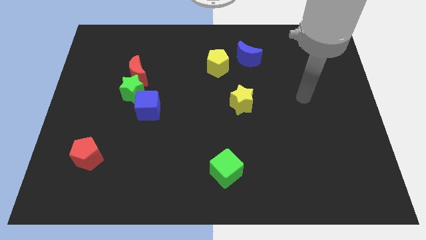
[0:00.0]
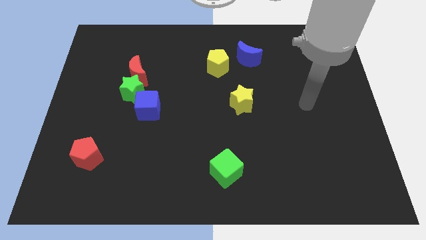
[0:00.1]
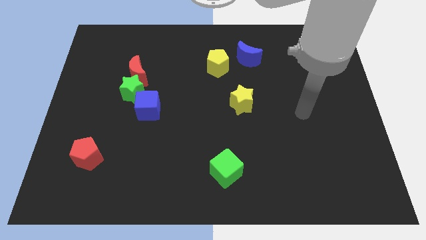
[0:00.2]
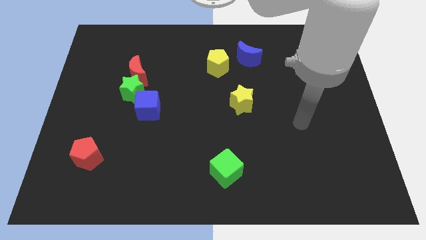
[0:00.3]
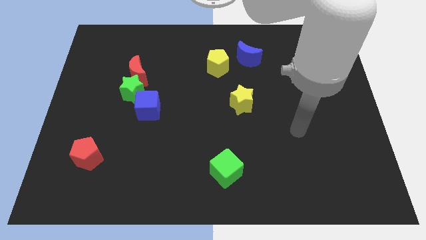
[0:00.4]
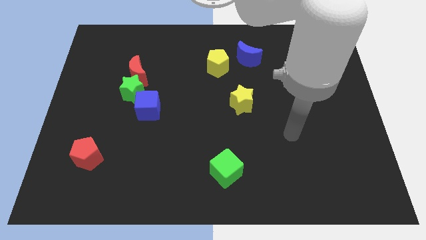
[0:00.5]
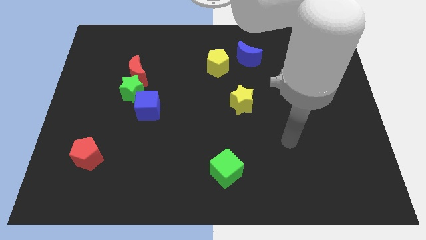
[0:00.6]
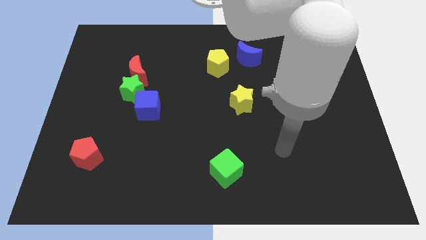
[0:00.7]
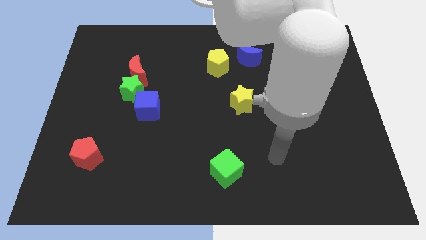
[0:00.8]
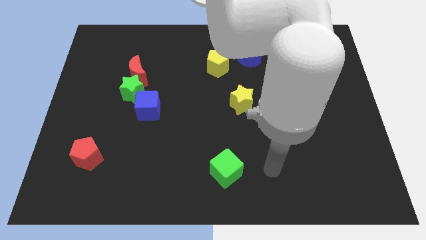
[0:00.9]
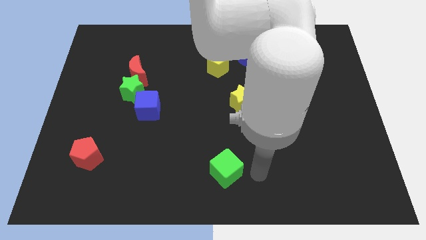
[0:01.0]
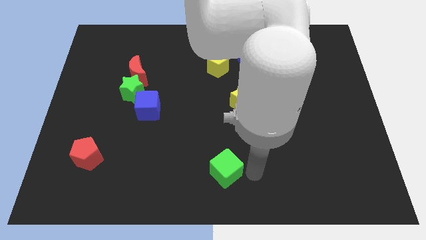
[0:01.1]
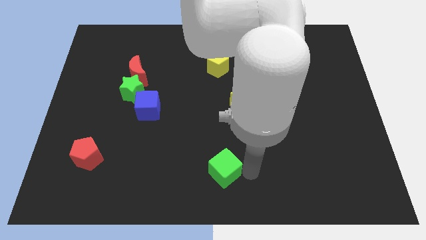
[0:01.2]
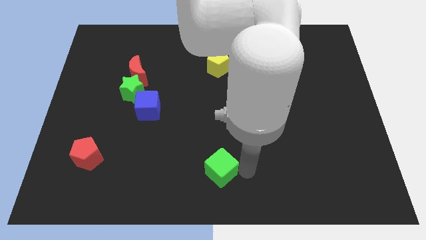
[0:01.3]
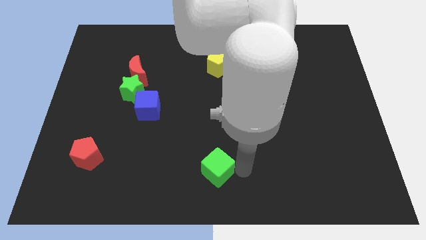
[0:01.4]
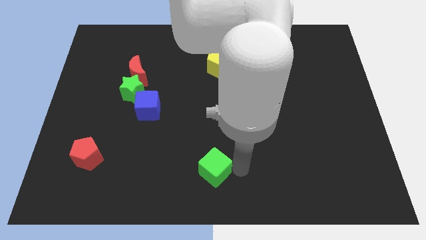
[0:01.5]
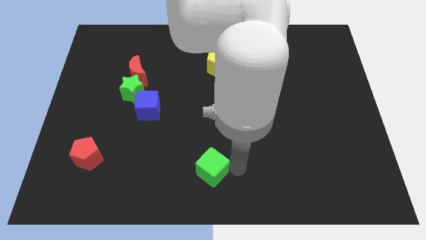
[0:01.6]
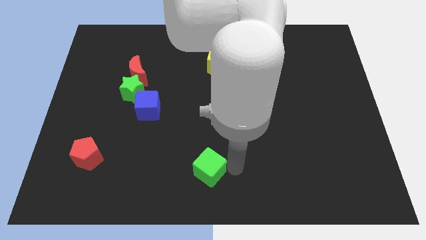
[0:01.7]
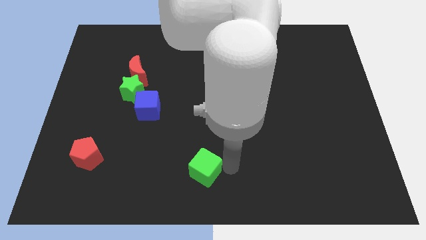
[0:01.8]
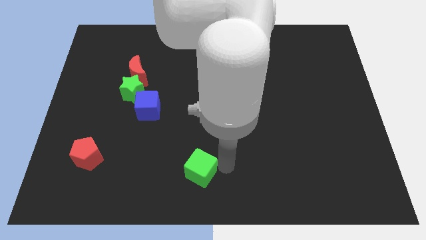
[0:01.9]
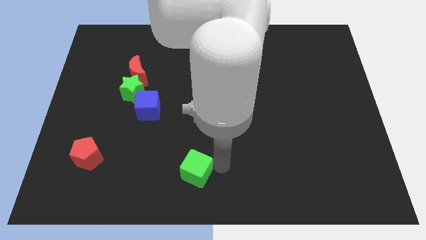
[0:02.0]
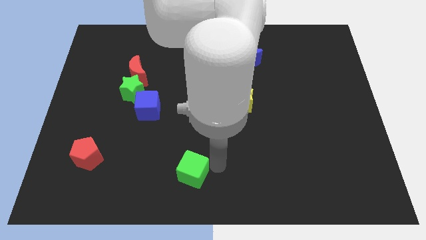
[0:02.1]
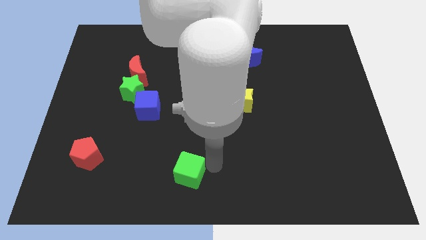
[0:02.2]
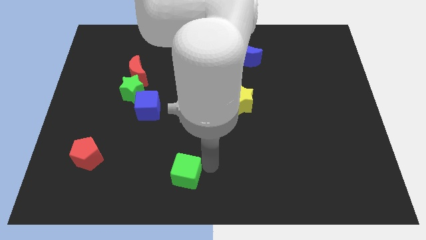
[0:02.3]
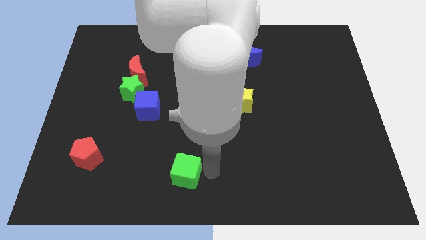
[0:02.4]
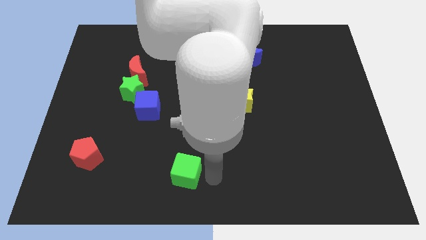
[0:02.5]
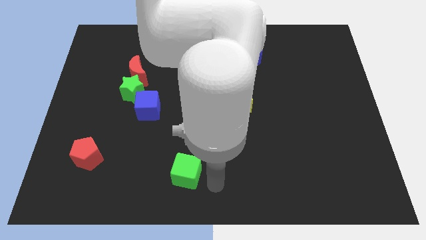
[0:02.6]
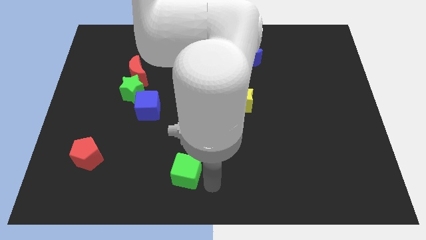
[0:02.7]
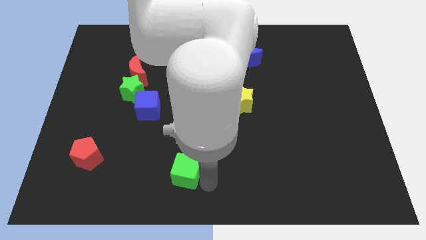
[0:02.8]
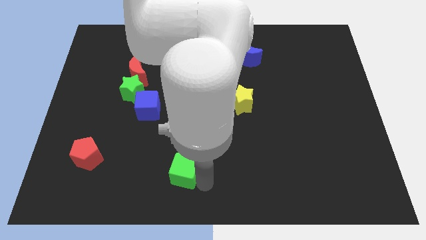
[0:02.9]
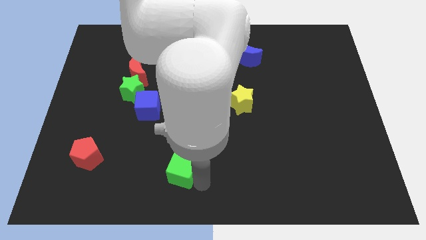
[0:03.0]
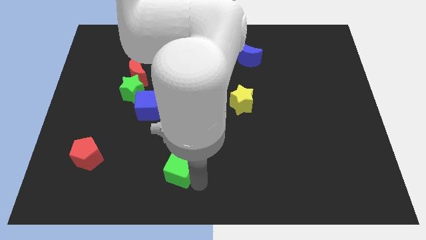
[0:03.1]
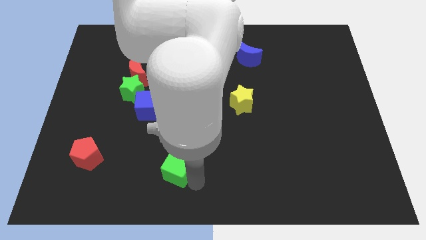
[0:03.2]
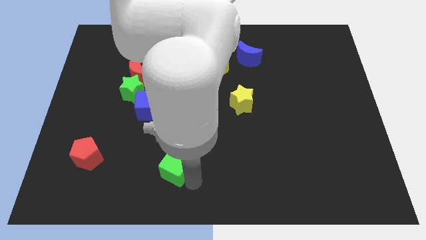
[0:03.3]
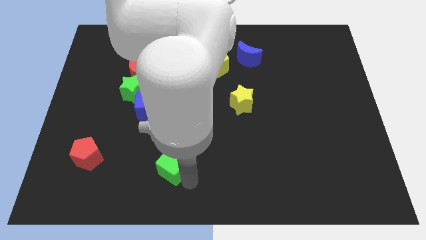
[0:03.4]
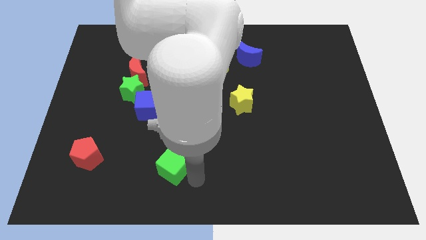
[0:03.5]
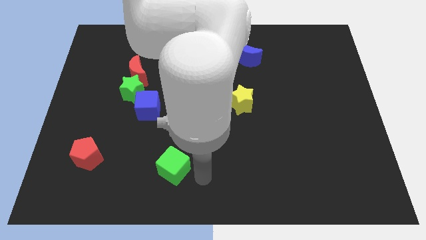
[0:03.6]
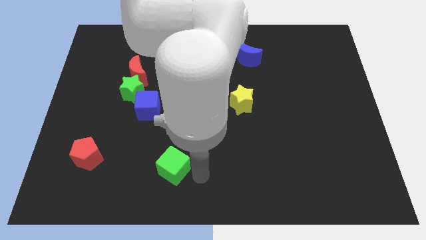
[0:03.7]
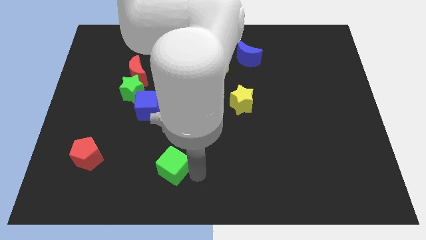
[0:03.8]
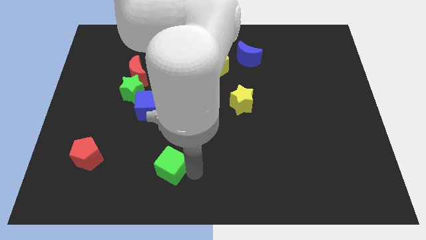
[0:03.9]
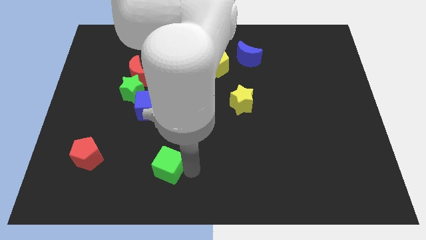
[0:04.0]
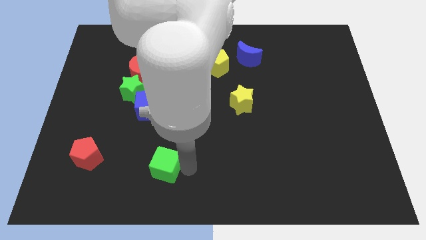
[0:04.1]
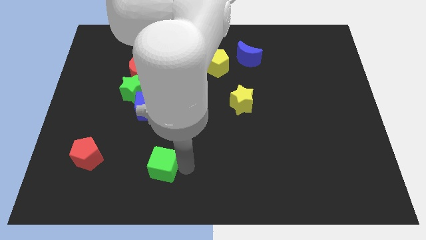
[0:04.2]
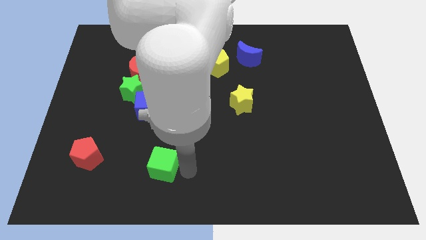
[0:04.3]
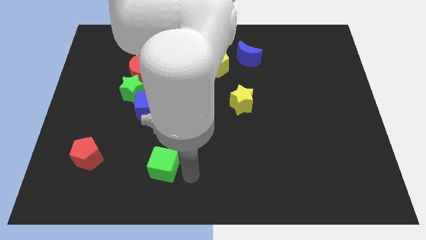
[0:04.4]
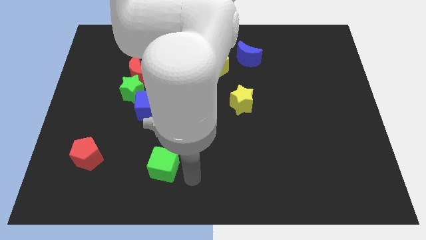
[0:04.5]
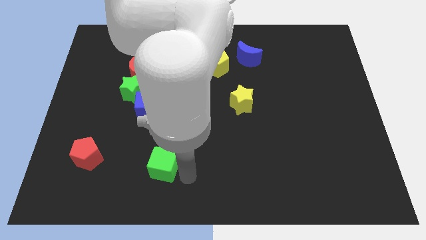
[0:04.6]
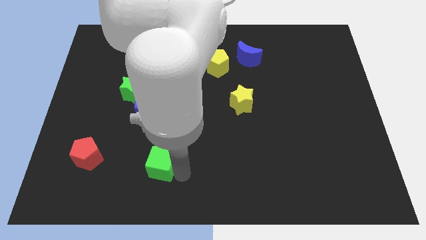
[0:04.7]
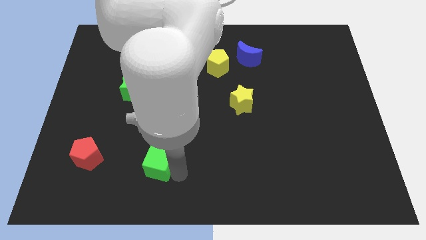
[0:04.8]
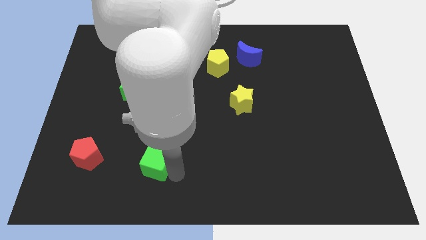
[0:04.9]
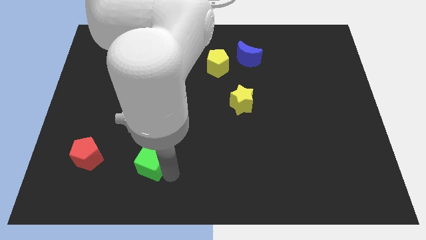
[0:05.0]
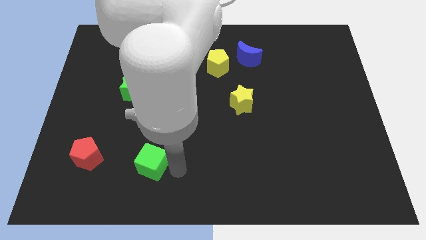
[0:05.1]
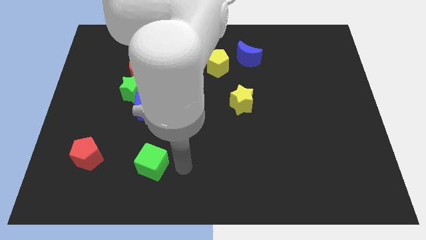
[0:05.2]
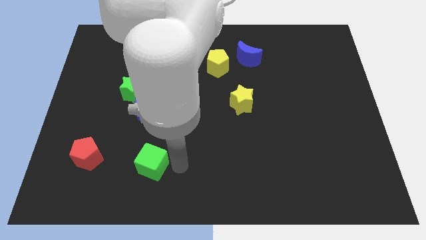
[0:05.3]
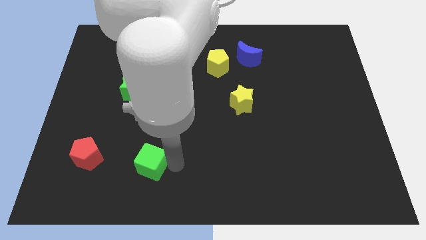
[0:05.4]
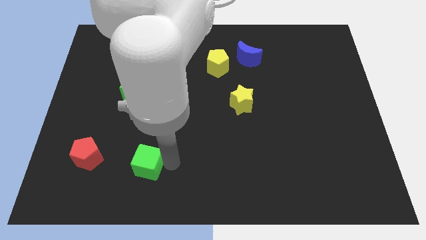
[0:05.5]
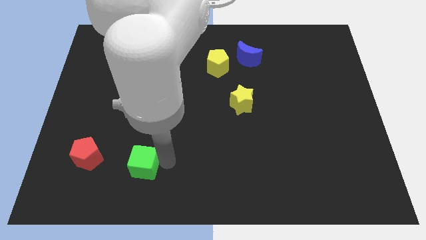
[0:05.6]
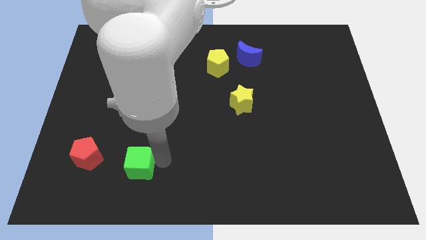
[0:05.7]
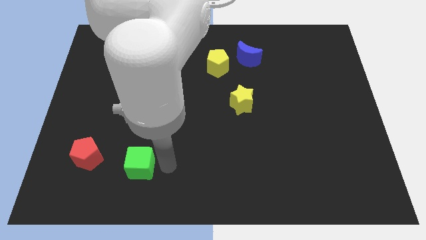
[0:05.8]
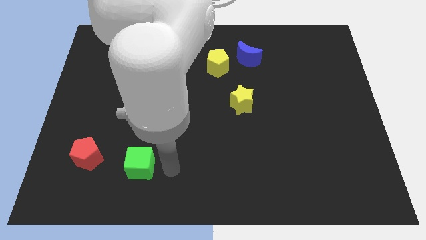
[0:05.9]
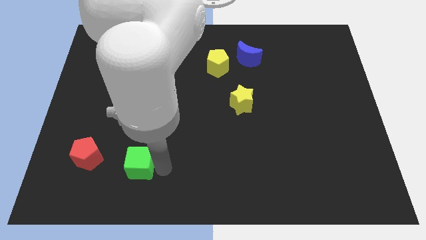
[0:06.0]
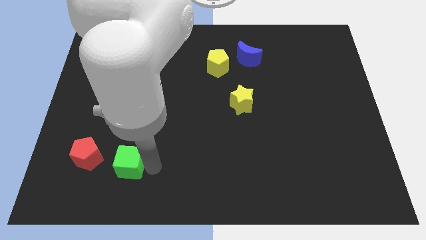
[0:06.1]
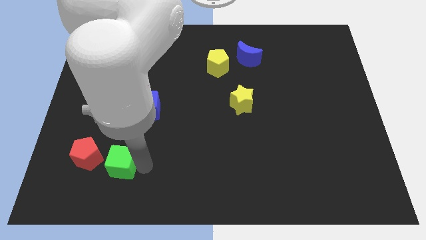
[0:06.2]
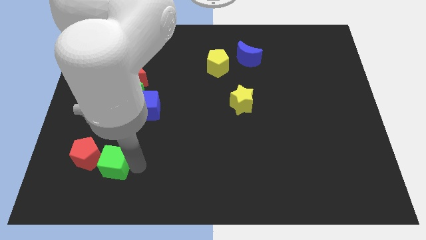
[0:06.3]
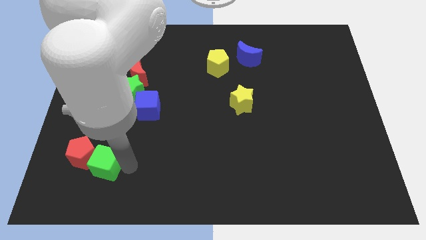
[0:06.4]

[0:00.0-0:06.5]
slide the green cube towards the red pentagon

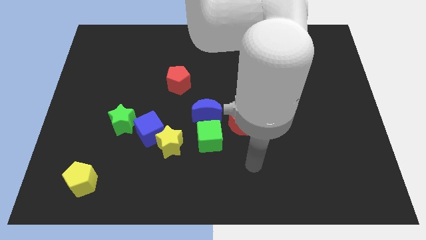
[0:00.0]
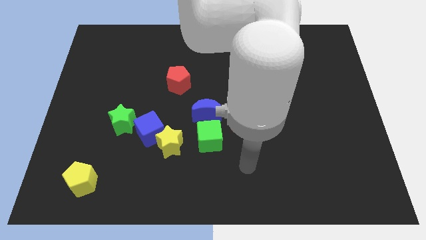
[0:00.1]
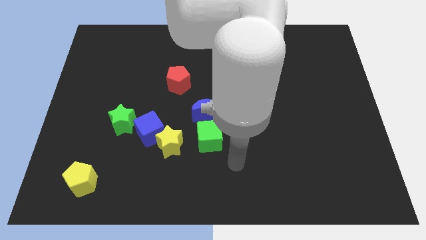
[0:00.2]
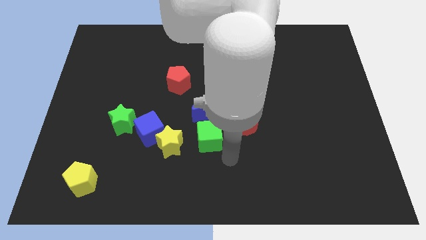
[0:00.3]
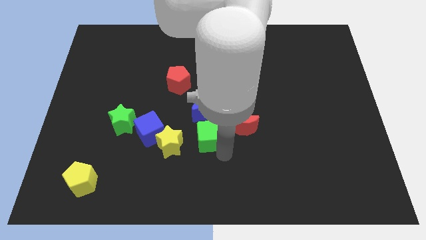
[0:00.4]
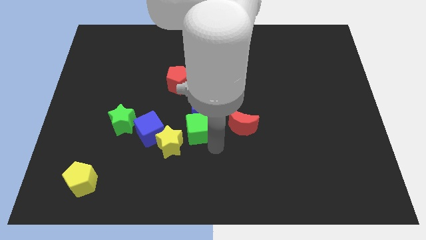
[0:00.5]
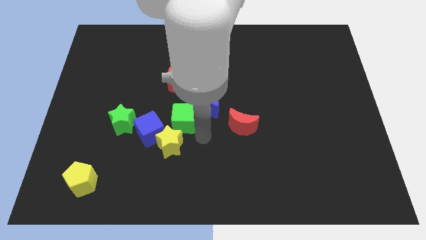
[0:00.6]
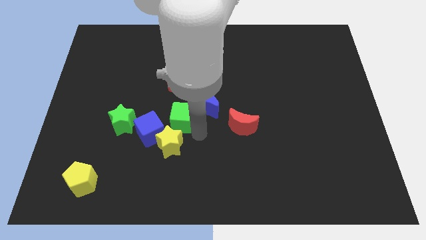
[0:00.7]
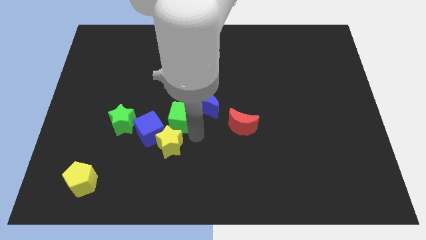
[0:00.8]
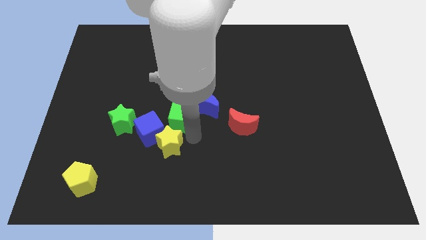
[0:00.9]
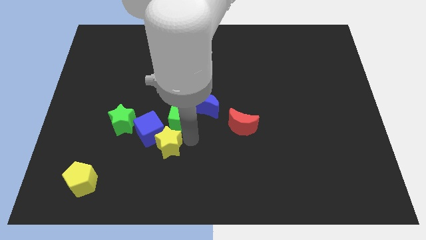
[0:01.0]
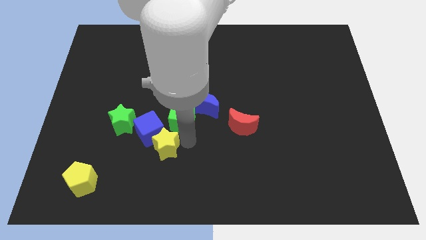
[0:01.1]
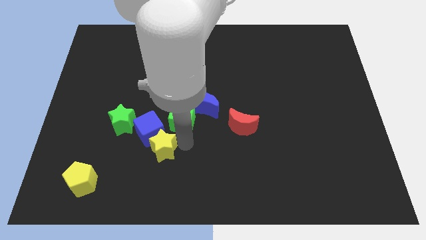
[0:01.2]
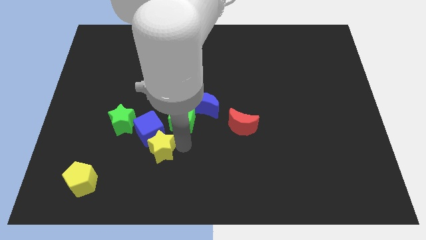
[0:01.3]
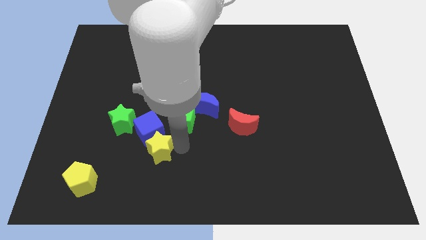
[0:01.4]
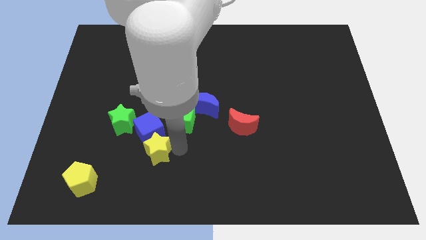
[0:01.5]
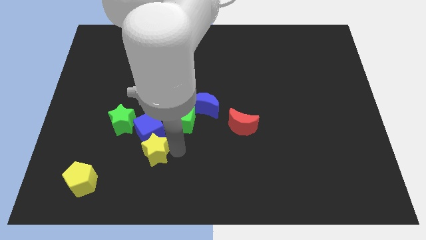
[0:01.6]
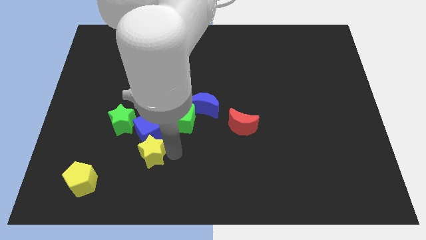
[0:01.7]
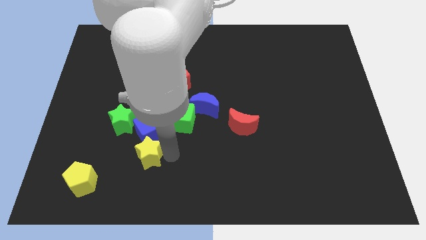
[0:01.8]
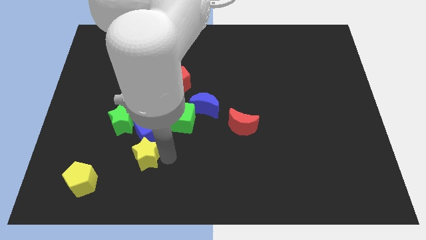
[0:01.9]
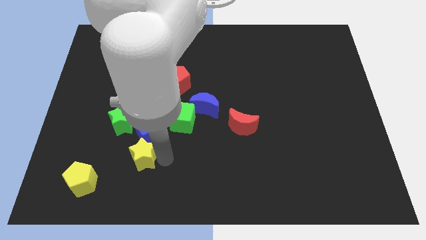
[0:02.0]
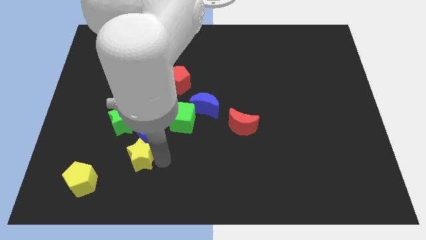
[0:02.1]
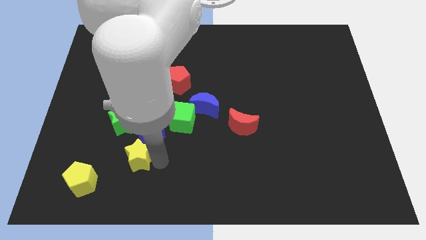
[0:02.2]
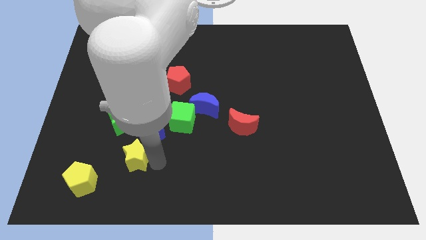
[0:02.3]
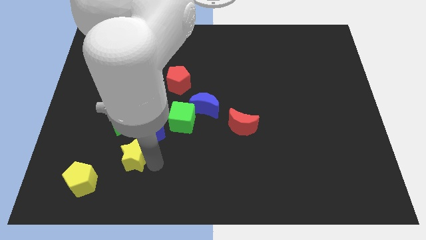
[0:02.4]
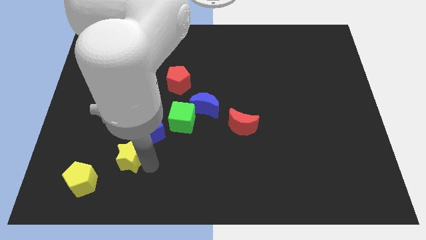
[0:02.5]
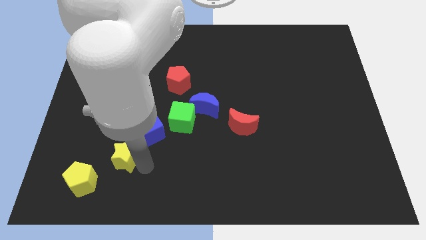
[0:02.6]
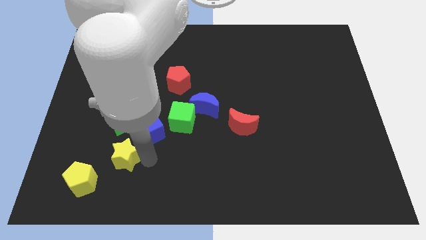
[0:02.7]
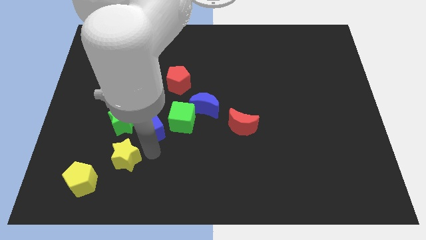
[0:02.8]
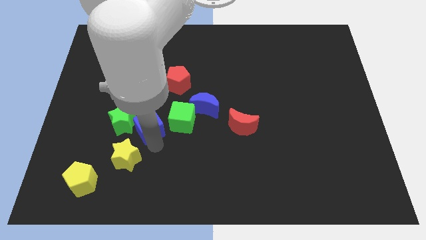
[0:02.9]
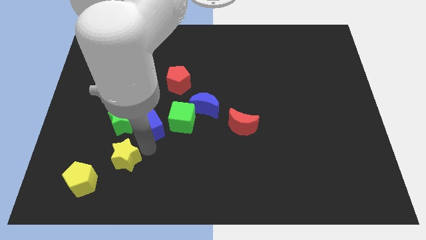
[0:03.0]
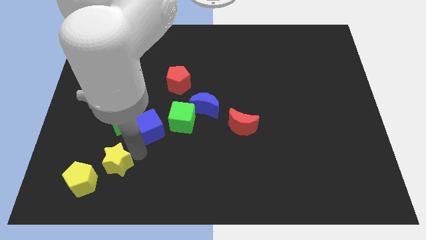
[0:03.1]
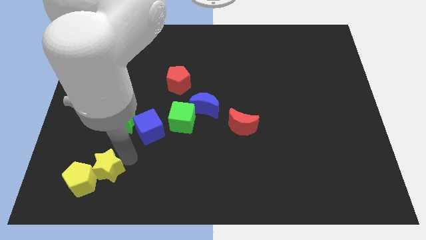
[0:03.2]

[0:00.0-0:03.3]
put the yellow star towards the yellow pentagon
